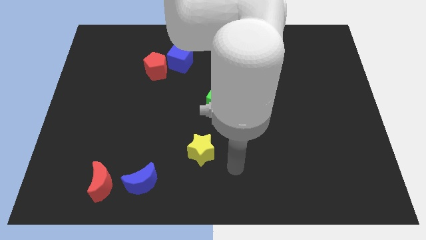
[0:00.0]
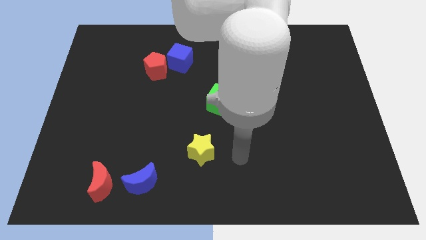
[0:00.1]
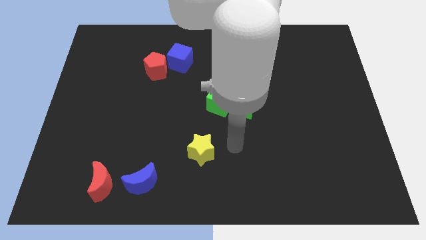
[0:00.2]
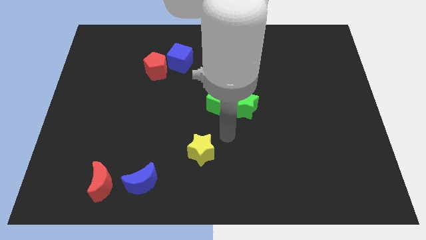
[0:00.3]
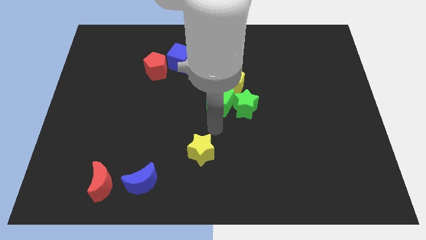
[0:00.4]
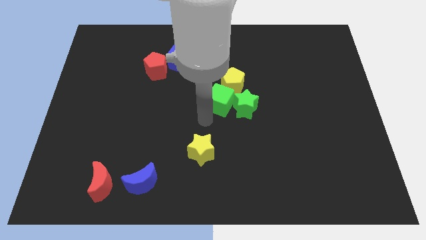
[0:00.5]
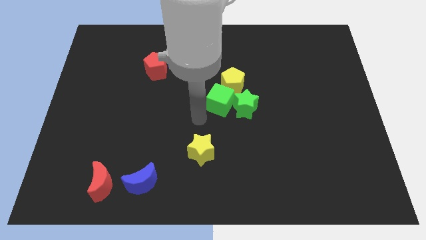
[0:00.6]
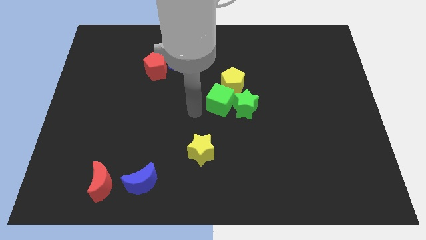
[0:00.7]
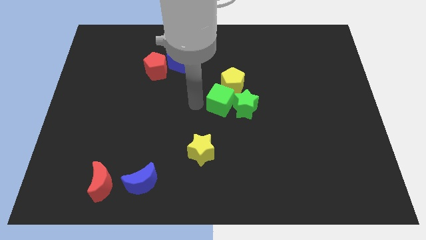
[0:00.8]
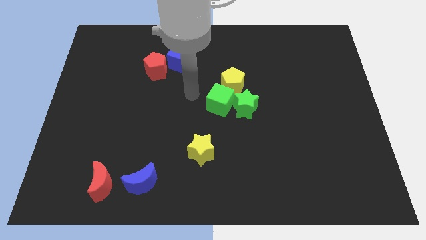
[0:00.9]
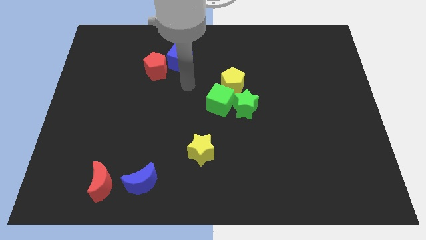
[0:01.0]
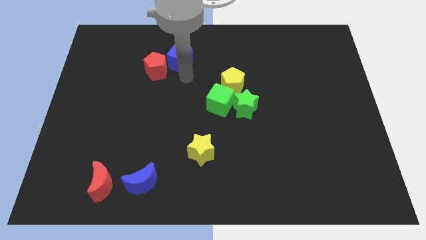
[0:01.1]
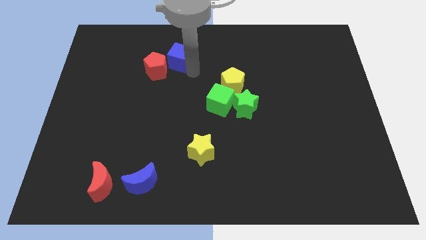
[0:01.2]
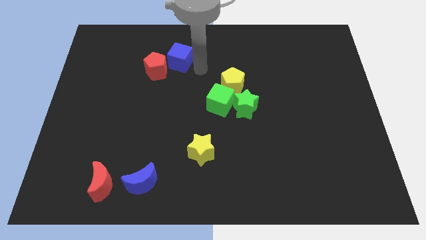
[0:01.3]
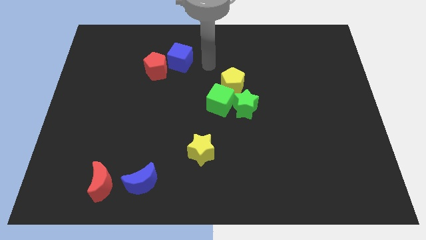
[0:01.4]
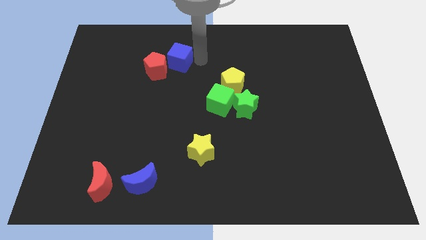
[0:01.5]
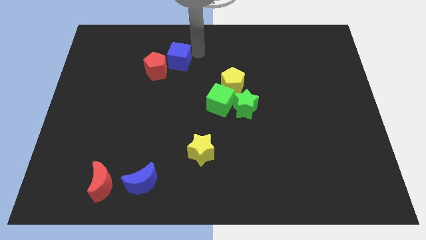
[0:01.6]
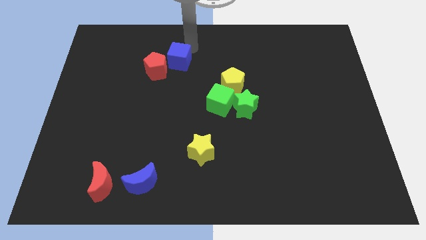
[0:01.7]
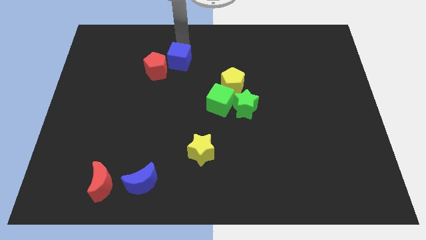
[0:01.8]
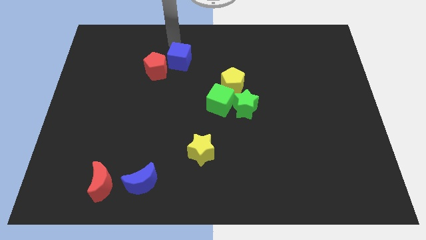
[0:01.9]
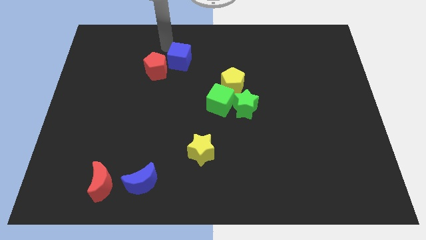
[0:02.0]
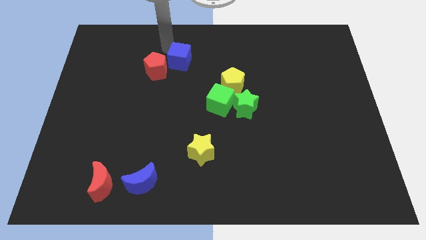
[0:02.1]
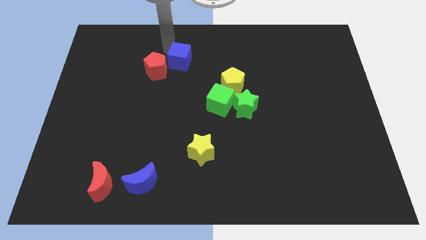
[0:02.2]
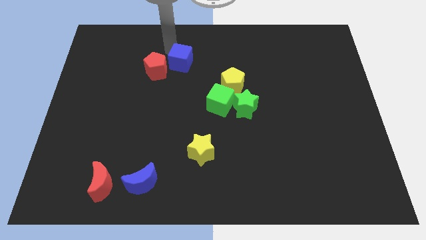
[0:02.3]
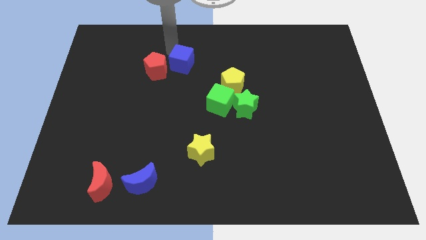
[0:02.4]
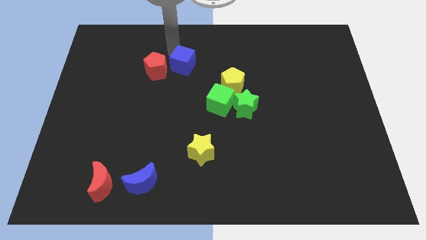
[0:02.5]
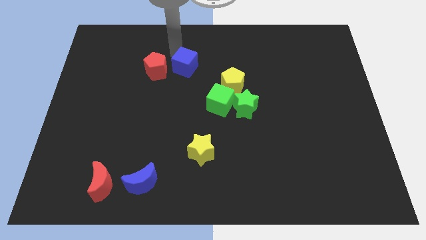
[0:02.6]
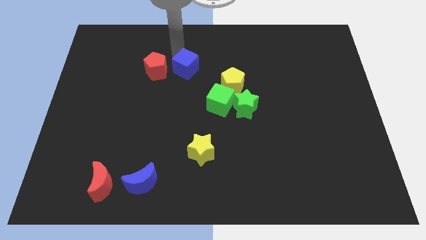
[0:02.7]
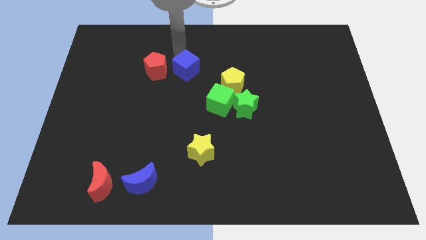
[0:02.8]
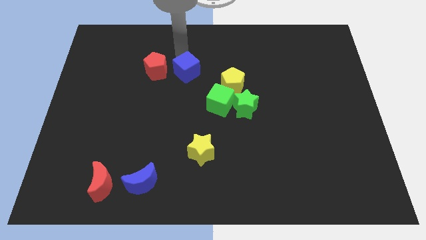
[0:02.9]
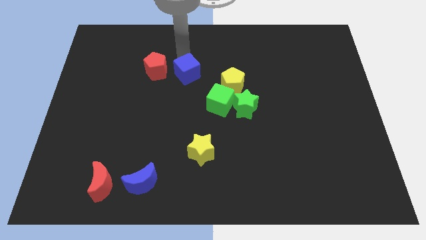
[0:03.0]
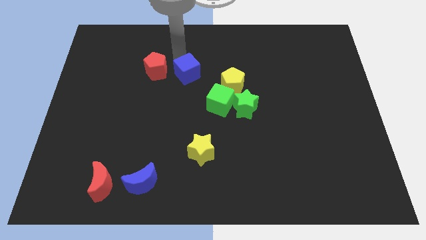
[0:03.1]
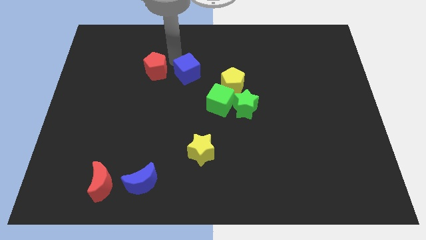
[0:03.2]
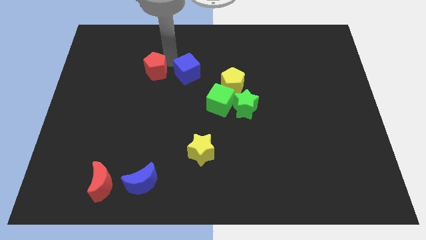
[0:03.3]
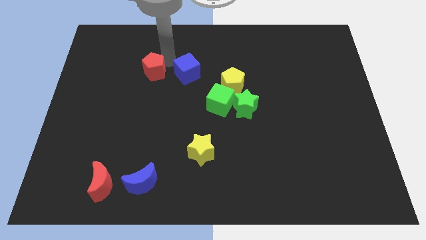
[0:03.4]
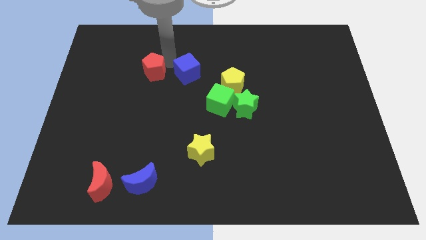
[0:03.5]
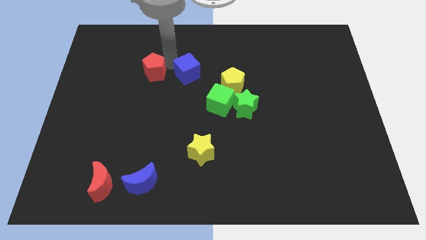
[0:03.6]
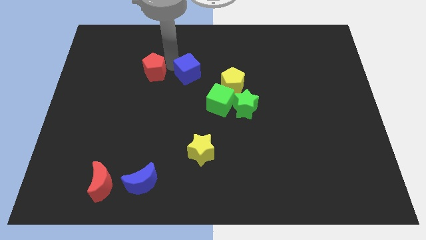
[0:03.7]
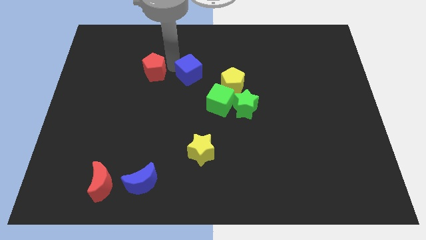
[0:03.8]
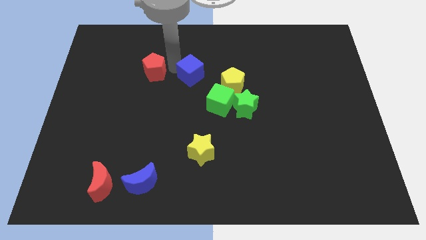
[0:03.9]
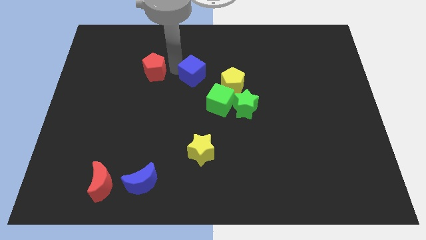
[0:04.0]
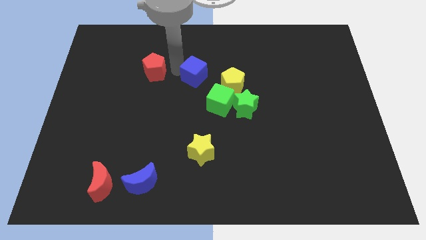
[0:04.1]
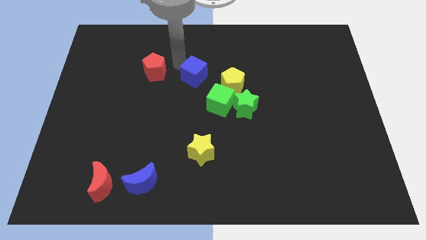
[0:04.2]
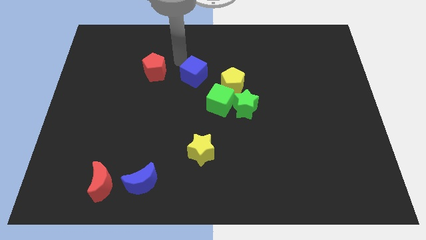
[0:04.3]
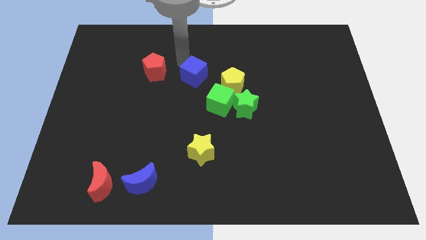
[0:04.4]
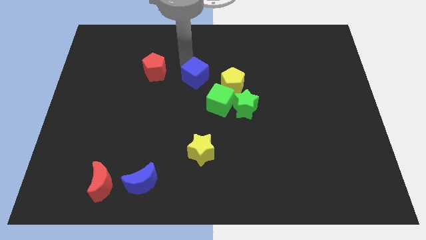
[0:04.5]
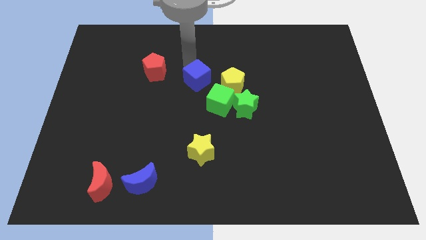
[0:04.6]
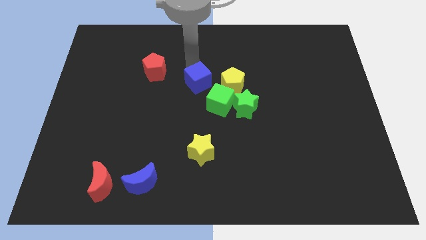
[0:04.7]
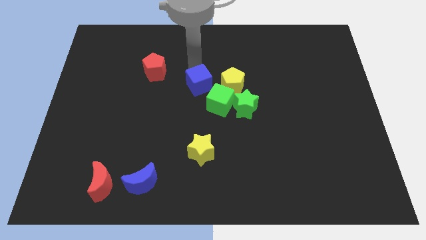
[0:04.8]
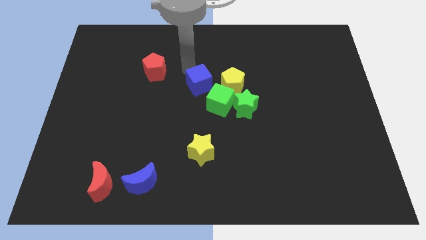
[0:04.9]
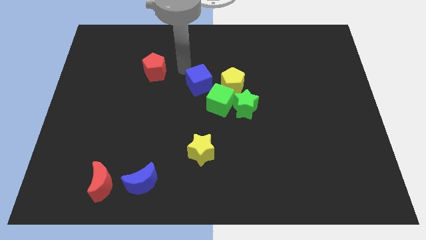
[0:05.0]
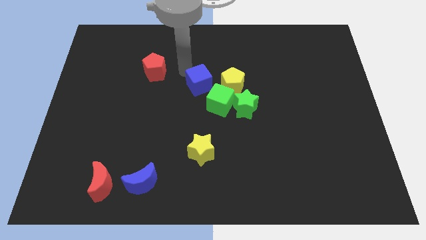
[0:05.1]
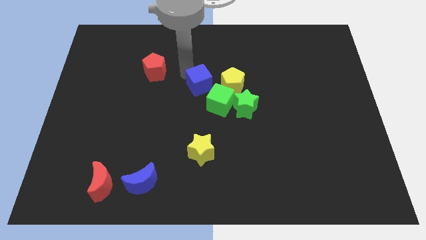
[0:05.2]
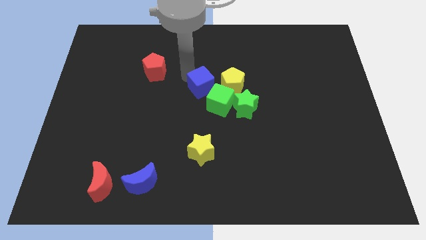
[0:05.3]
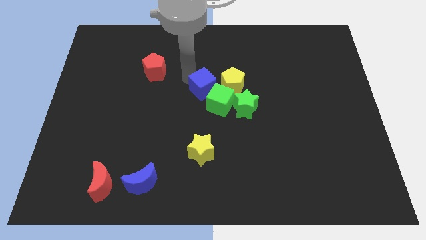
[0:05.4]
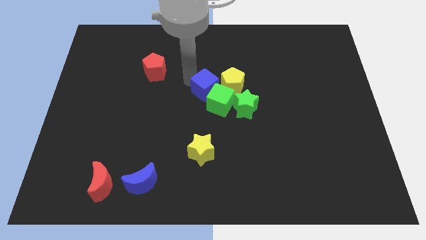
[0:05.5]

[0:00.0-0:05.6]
slide the blue cube to the green cube
